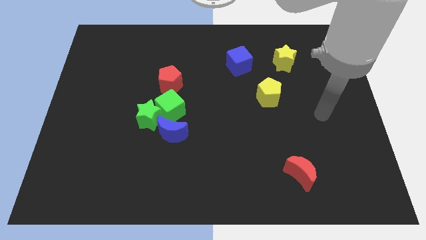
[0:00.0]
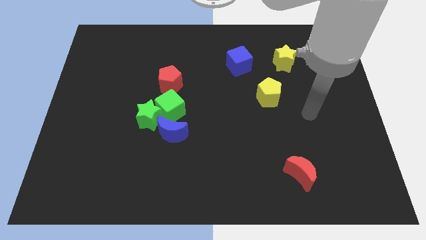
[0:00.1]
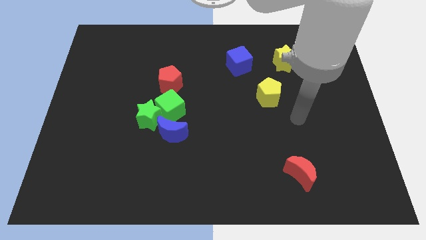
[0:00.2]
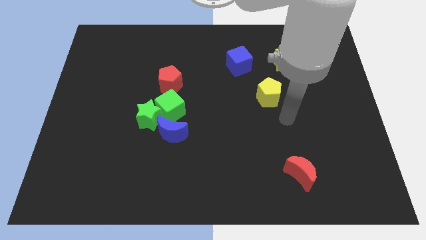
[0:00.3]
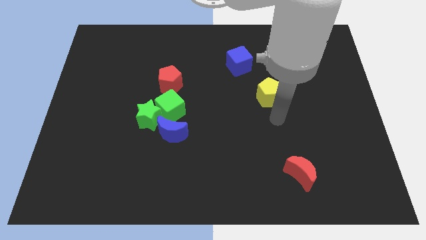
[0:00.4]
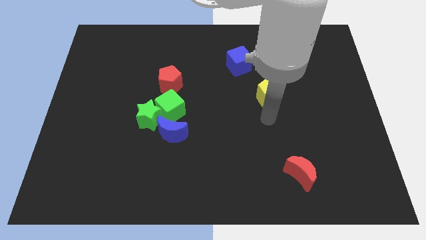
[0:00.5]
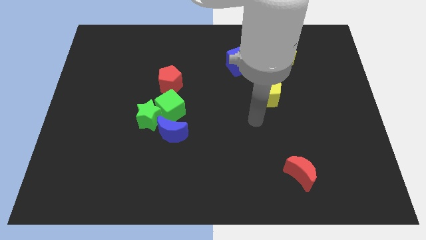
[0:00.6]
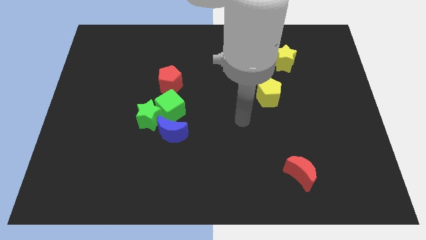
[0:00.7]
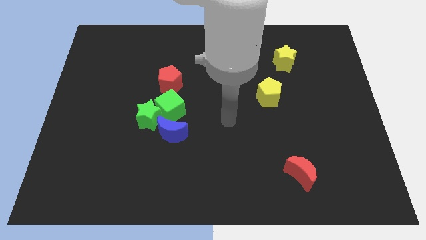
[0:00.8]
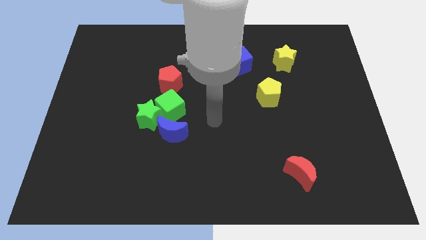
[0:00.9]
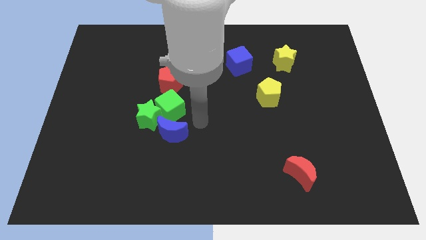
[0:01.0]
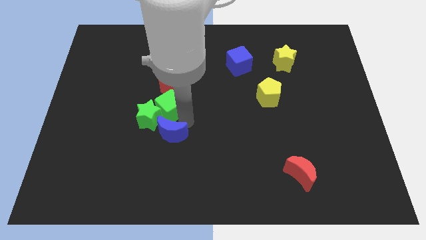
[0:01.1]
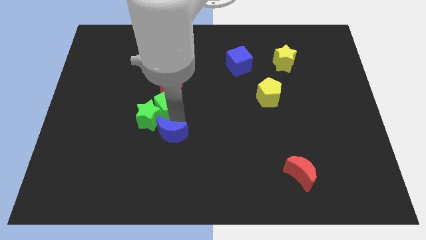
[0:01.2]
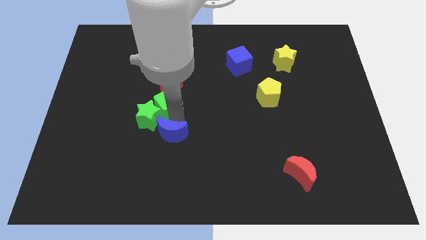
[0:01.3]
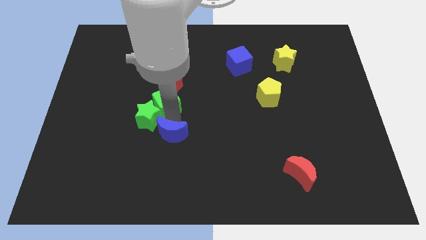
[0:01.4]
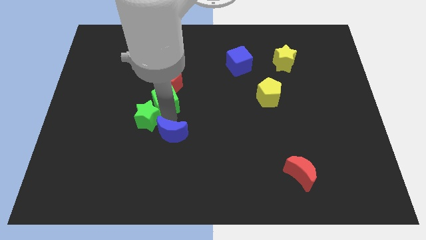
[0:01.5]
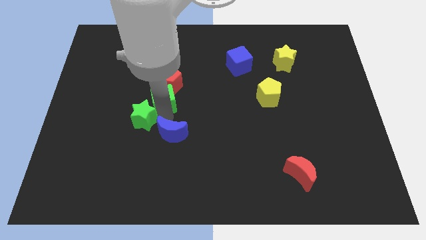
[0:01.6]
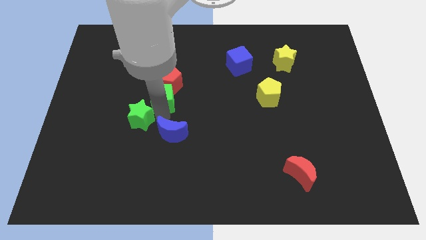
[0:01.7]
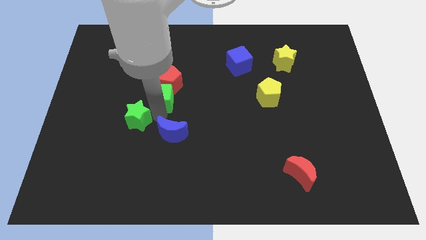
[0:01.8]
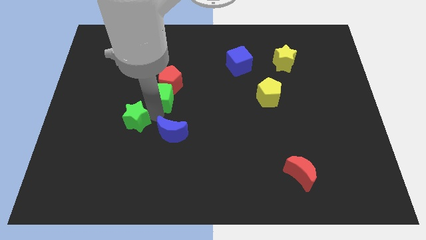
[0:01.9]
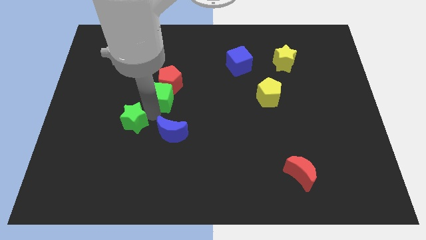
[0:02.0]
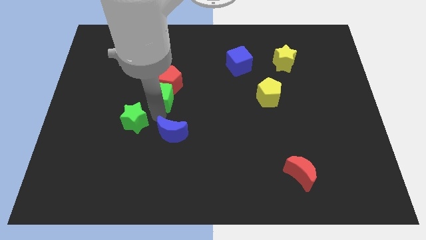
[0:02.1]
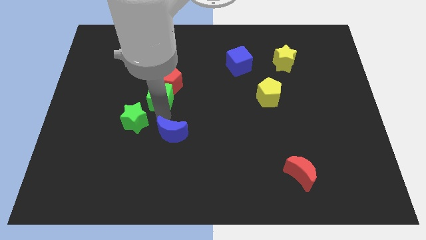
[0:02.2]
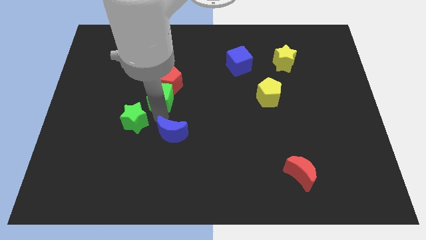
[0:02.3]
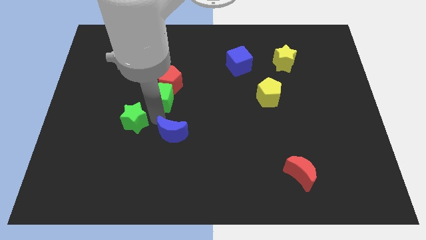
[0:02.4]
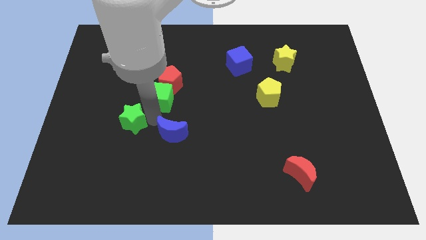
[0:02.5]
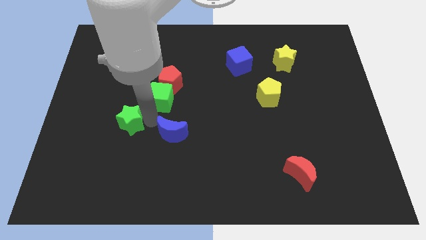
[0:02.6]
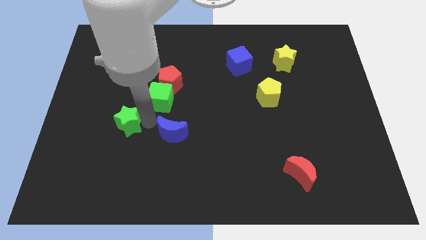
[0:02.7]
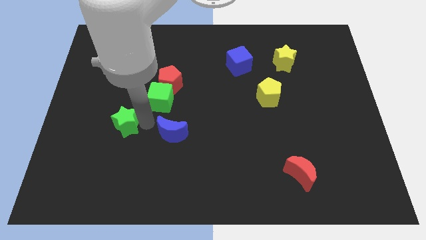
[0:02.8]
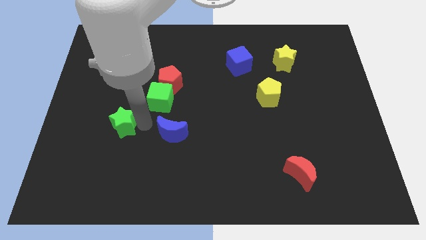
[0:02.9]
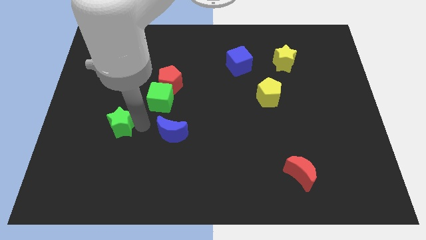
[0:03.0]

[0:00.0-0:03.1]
separate the green star from the green cube and blue moon

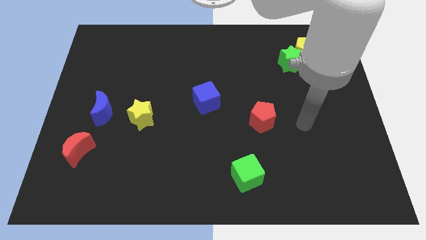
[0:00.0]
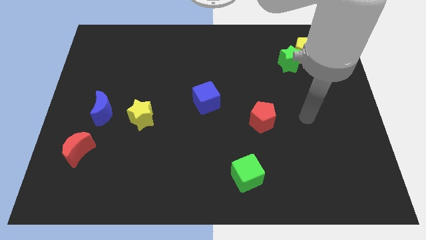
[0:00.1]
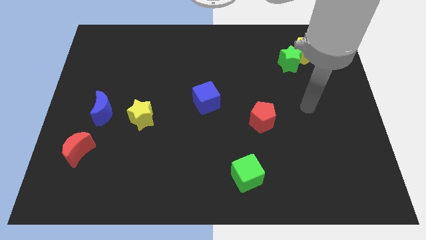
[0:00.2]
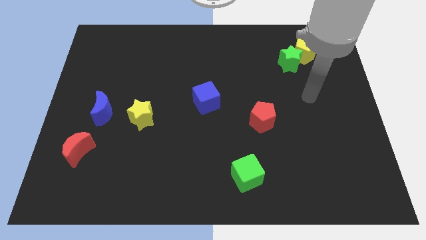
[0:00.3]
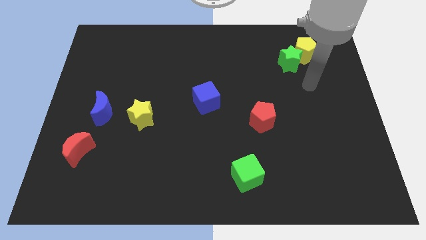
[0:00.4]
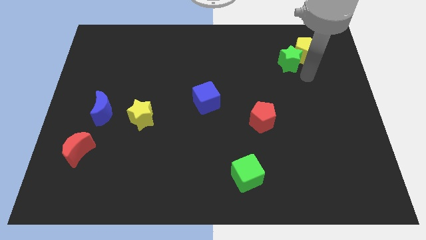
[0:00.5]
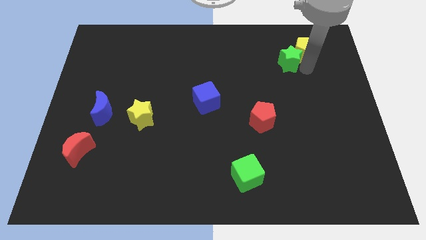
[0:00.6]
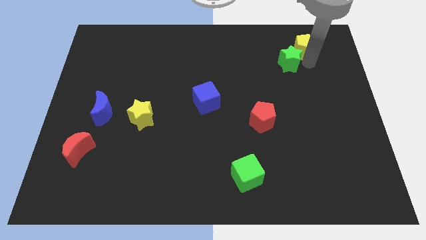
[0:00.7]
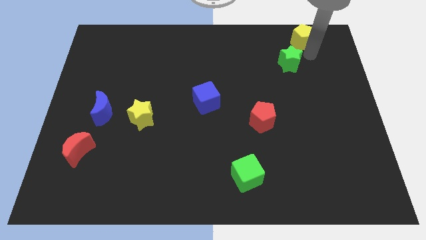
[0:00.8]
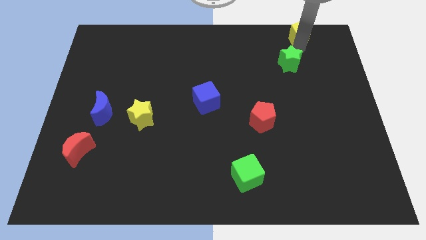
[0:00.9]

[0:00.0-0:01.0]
move the green star away from the yellow pentagon

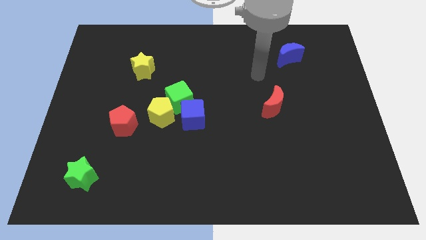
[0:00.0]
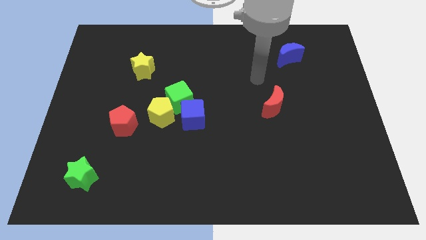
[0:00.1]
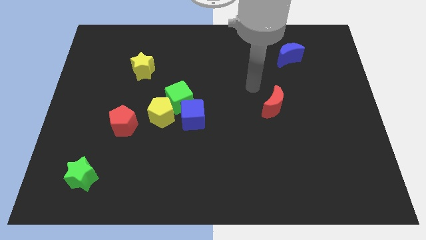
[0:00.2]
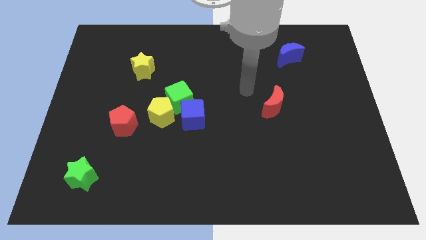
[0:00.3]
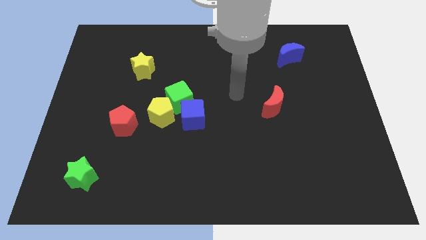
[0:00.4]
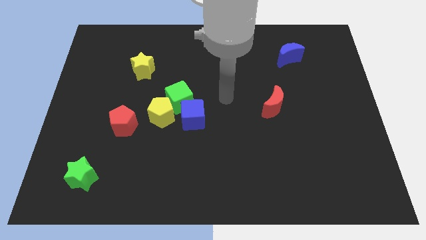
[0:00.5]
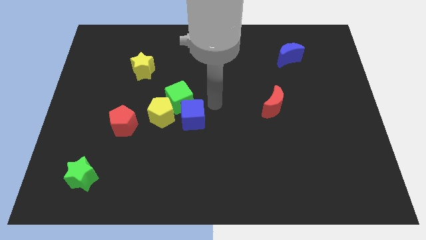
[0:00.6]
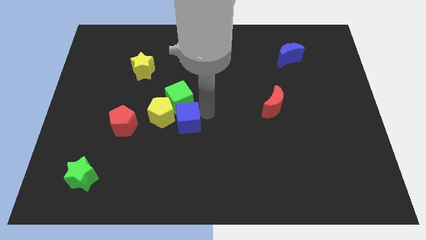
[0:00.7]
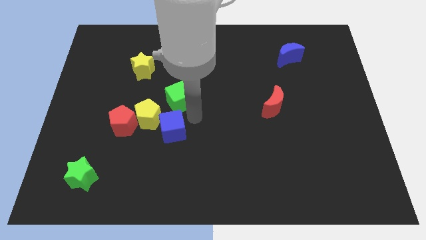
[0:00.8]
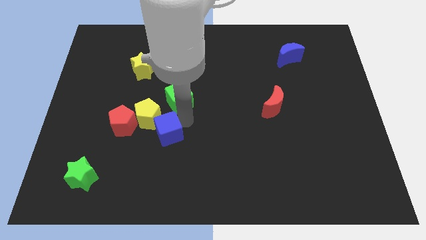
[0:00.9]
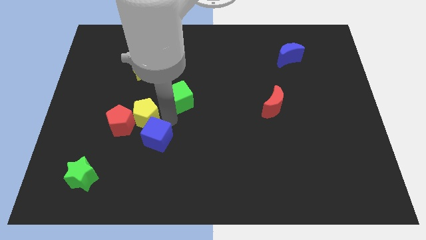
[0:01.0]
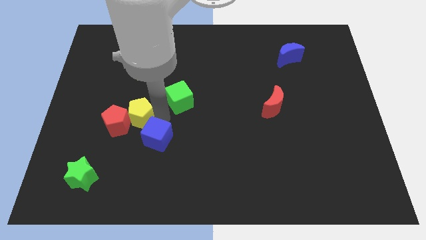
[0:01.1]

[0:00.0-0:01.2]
separate the green cube from the yellow pentagon and blue cube

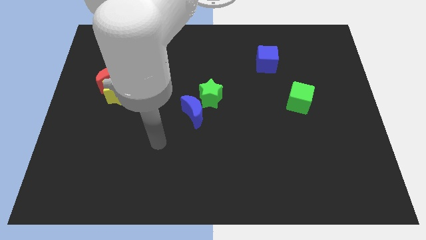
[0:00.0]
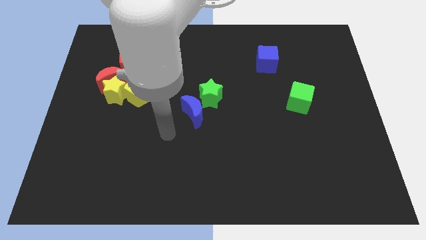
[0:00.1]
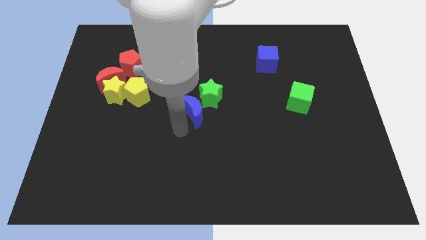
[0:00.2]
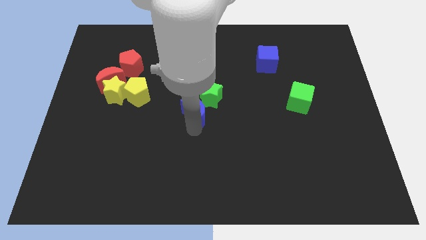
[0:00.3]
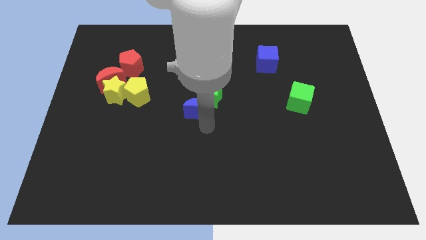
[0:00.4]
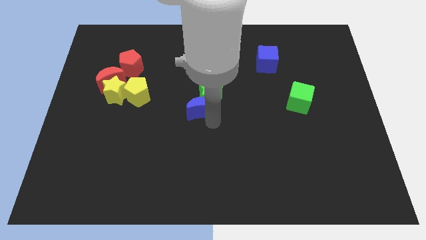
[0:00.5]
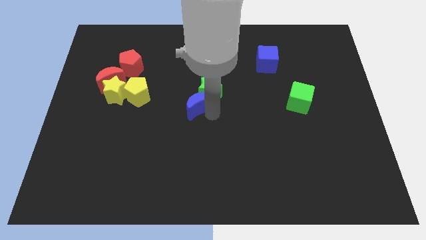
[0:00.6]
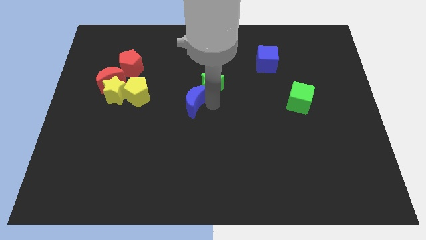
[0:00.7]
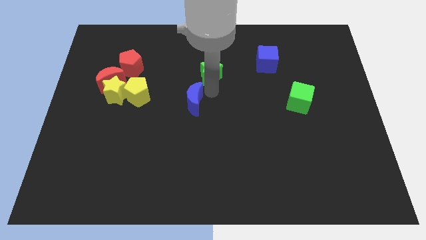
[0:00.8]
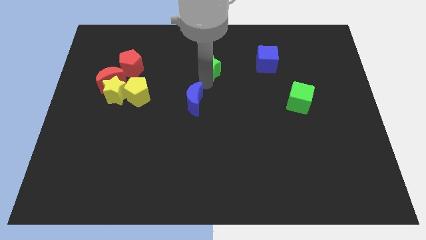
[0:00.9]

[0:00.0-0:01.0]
pull the blue moon apart from the green star

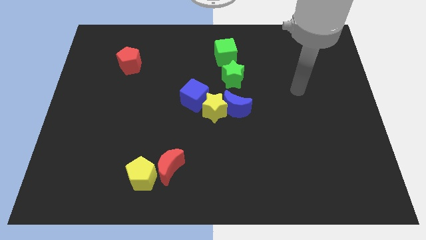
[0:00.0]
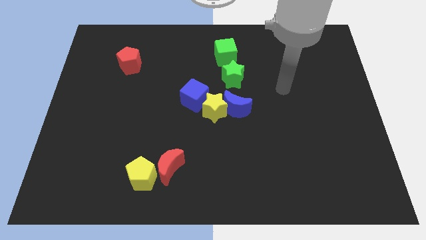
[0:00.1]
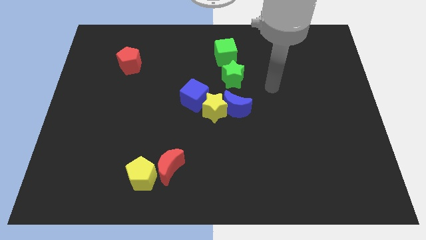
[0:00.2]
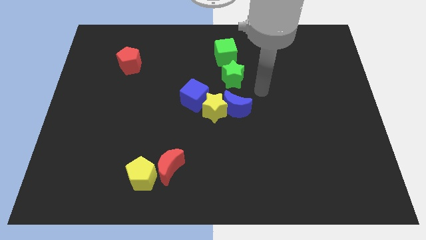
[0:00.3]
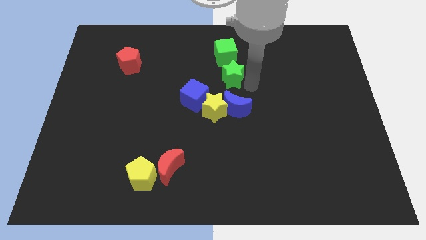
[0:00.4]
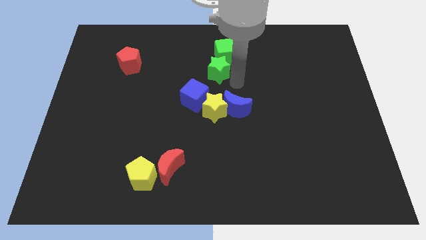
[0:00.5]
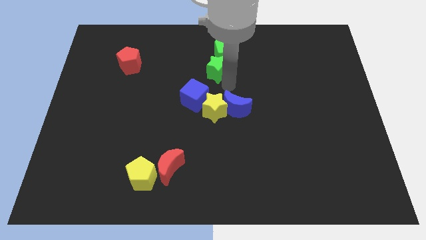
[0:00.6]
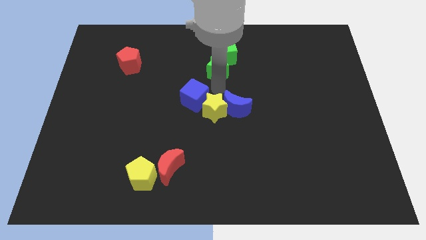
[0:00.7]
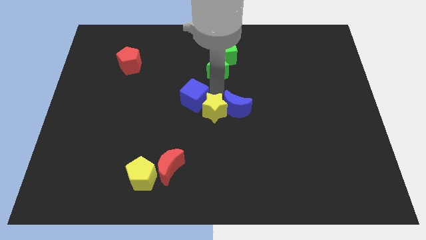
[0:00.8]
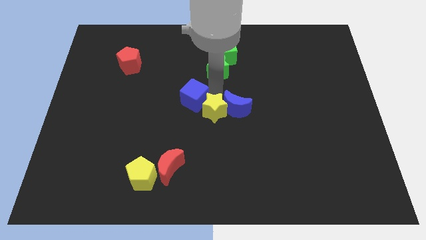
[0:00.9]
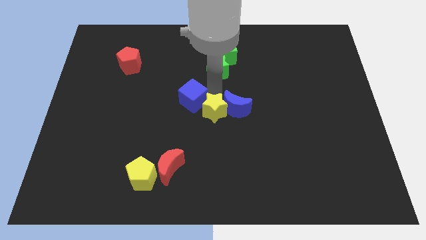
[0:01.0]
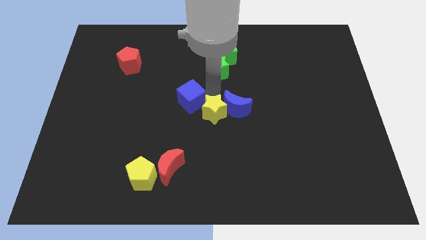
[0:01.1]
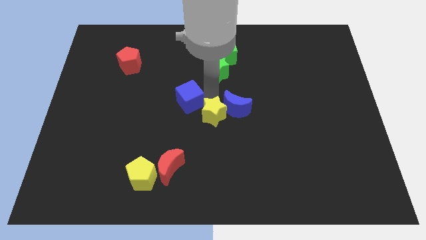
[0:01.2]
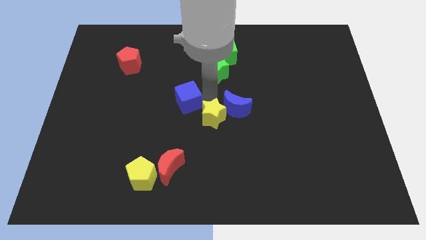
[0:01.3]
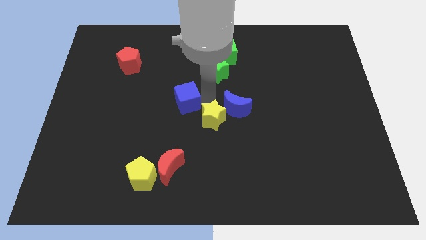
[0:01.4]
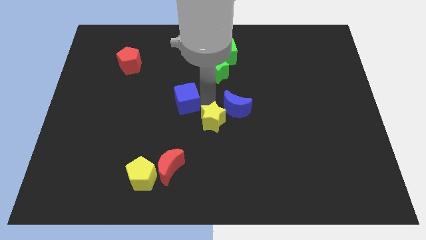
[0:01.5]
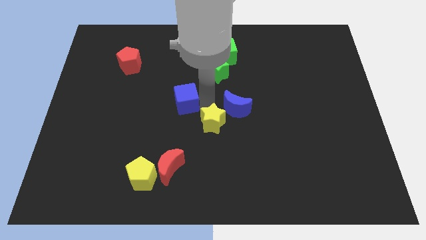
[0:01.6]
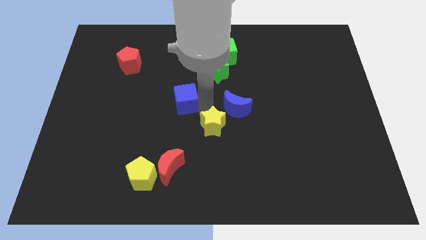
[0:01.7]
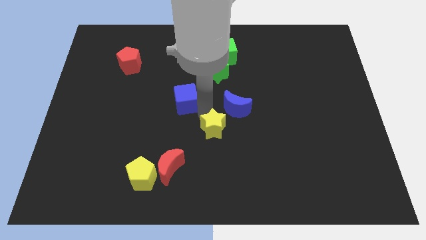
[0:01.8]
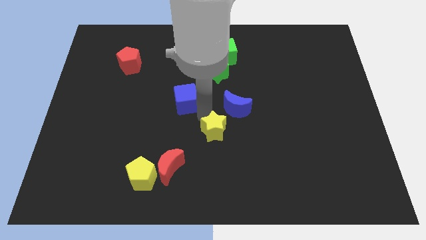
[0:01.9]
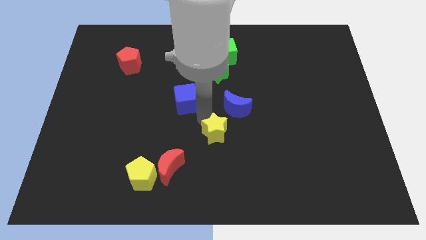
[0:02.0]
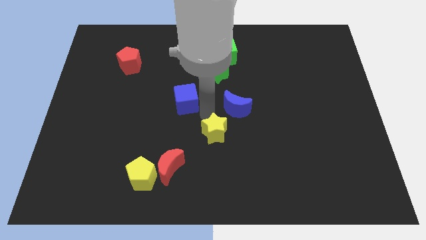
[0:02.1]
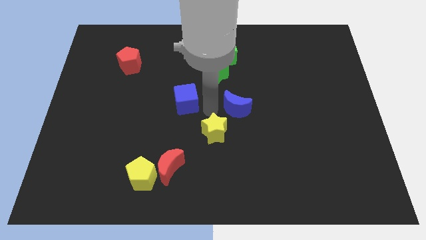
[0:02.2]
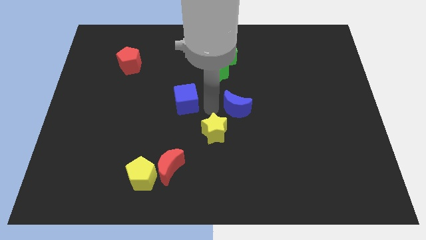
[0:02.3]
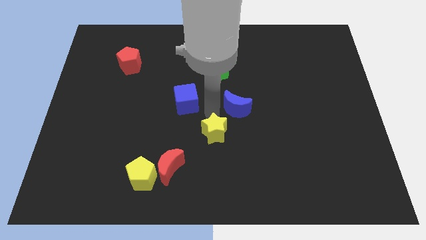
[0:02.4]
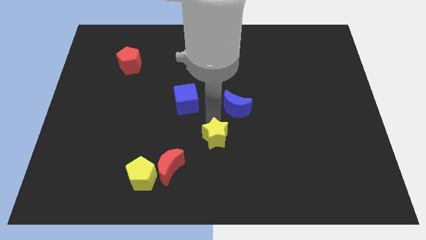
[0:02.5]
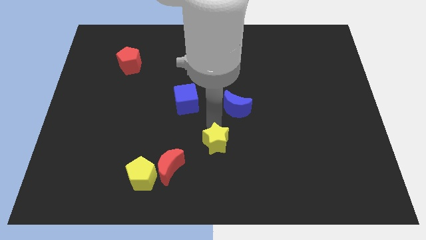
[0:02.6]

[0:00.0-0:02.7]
separate the yellow star from the blue moon and blue cube

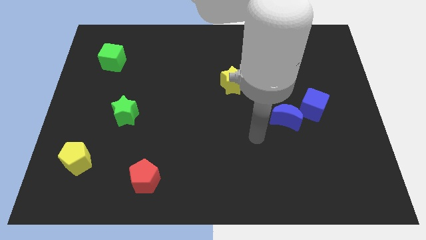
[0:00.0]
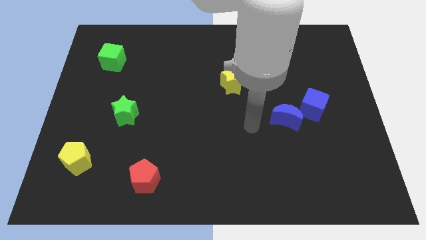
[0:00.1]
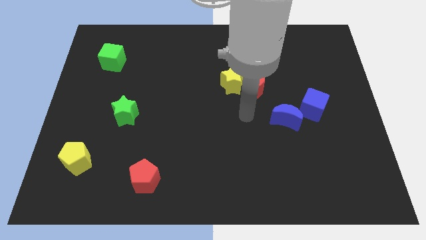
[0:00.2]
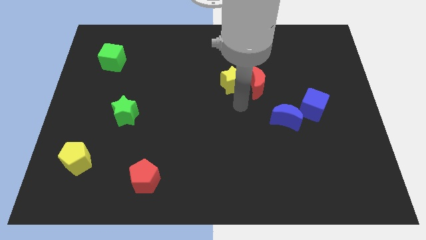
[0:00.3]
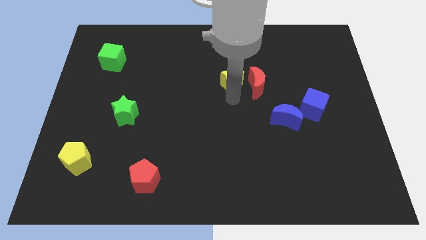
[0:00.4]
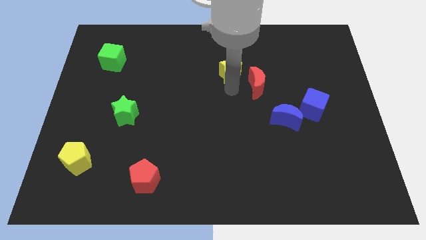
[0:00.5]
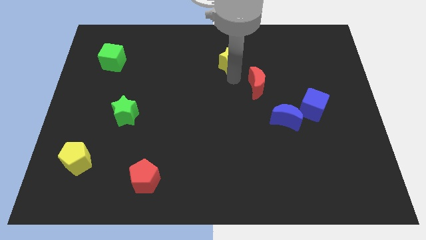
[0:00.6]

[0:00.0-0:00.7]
separate the red moon from the yellow star
